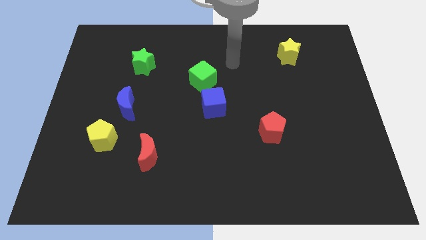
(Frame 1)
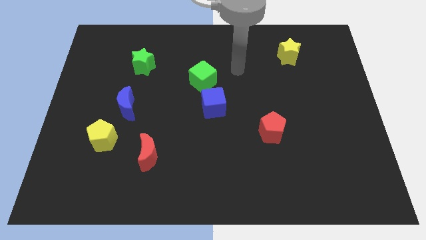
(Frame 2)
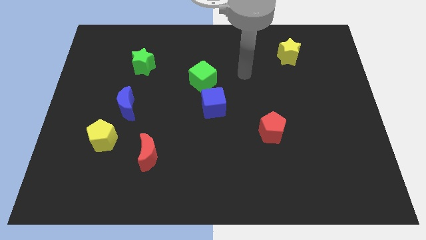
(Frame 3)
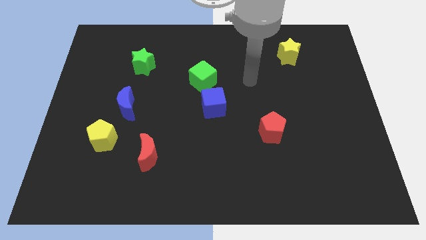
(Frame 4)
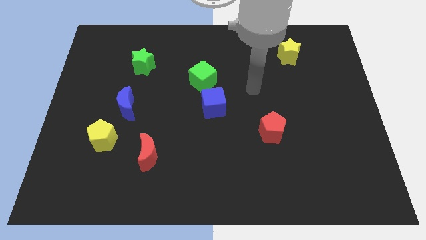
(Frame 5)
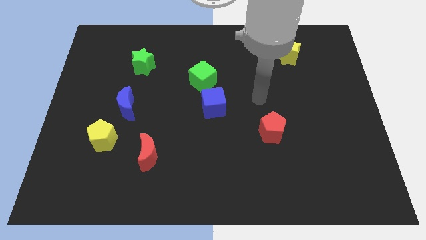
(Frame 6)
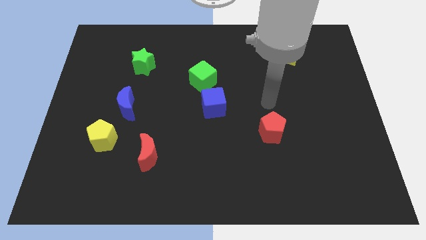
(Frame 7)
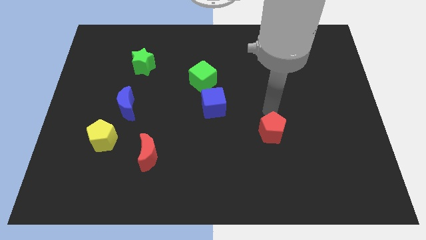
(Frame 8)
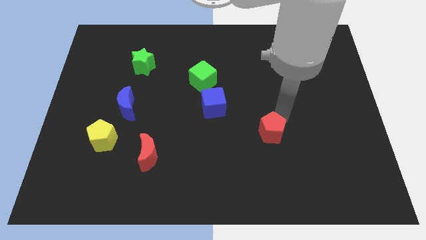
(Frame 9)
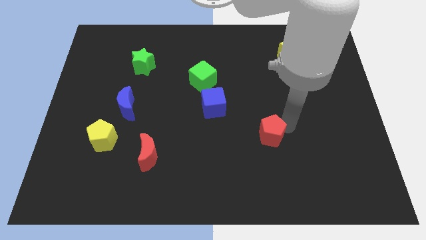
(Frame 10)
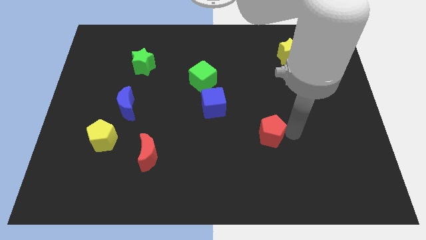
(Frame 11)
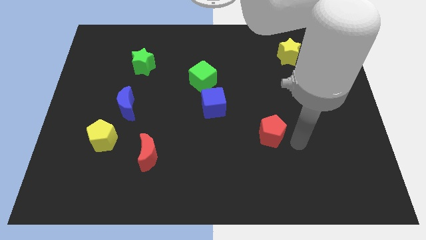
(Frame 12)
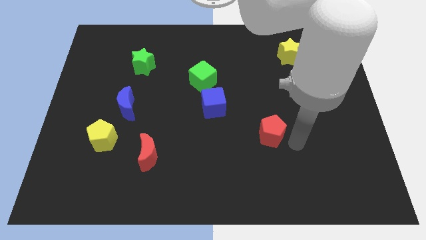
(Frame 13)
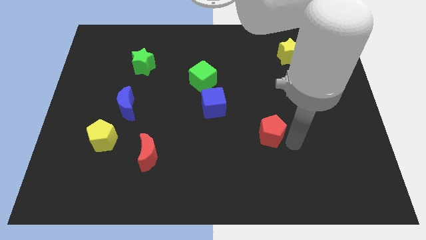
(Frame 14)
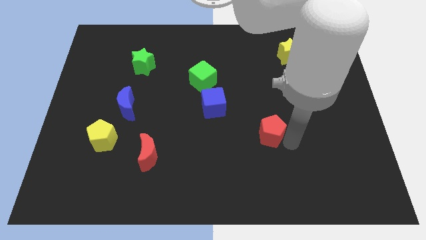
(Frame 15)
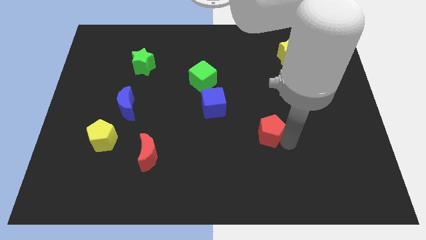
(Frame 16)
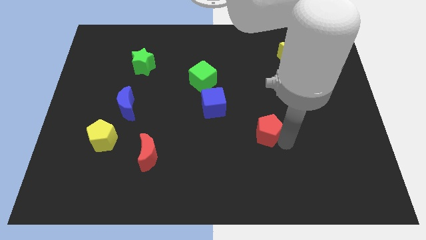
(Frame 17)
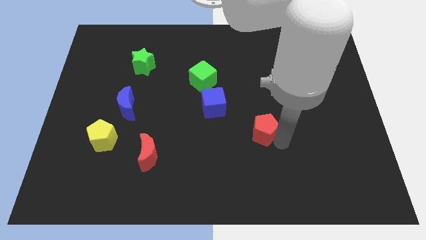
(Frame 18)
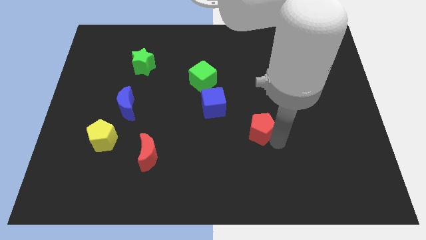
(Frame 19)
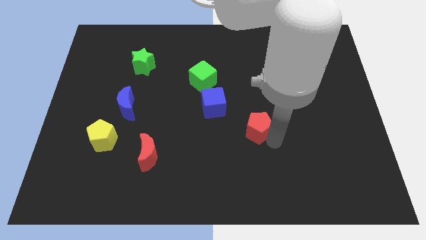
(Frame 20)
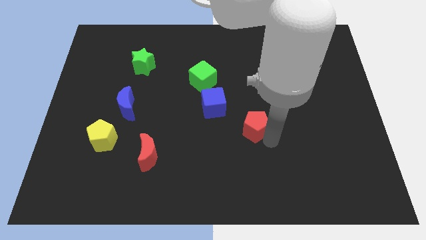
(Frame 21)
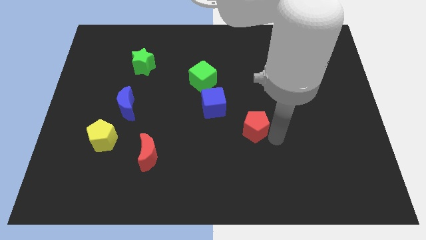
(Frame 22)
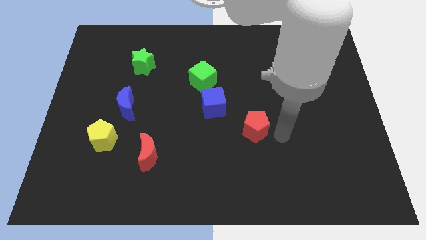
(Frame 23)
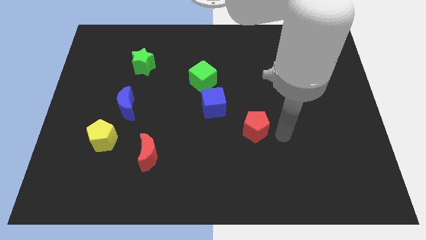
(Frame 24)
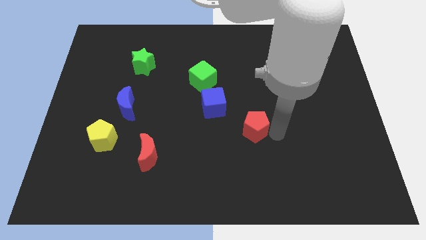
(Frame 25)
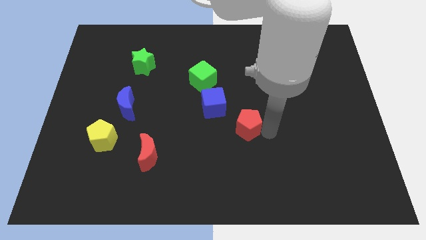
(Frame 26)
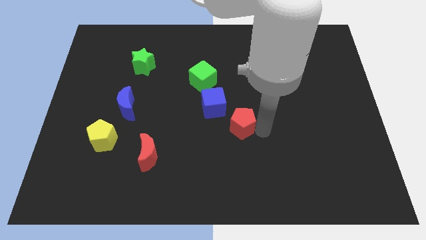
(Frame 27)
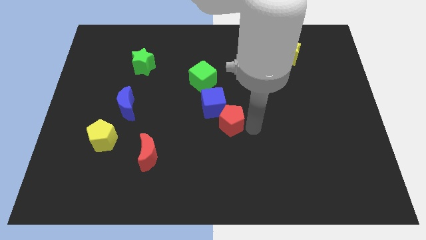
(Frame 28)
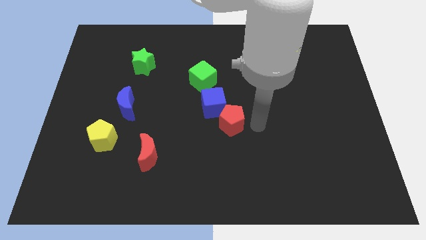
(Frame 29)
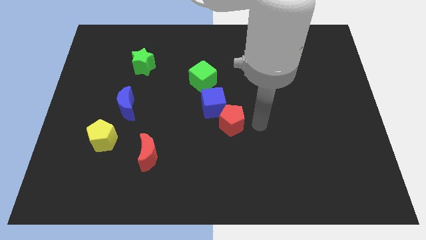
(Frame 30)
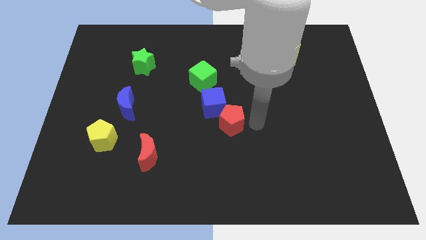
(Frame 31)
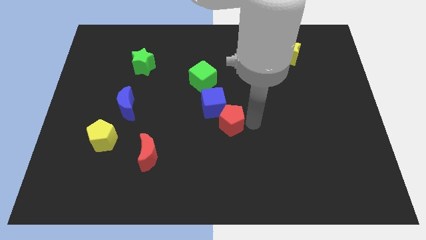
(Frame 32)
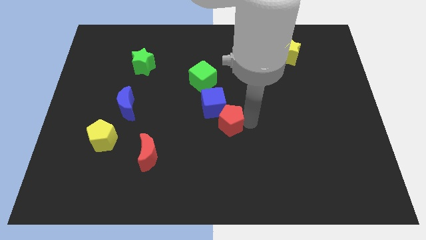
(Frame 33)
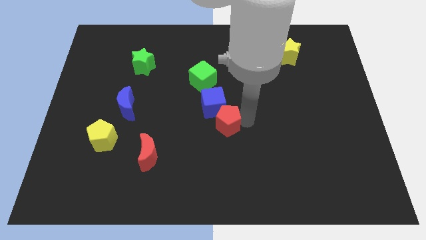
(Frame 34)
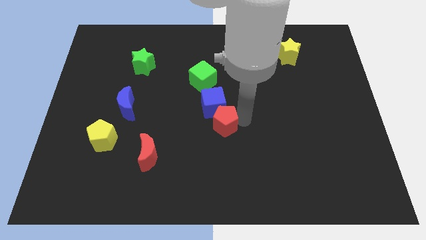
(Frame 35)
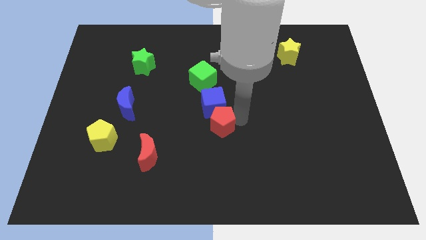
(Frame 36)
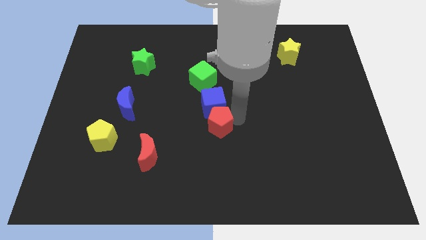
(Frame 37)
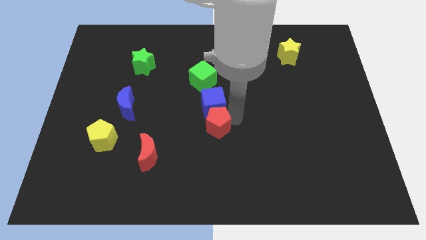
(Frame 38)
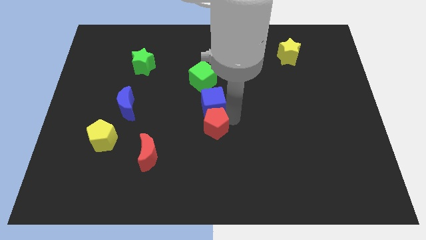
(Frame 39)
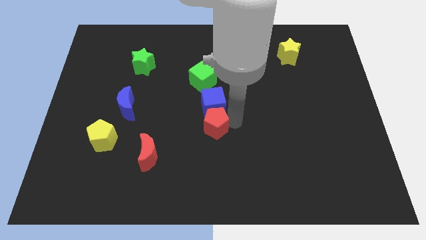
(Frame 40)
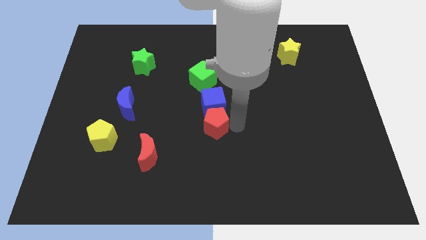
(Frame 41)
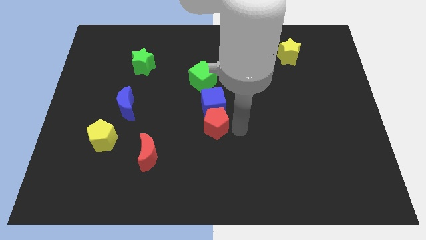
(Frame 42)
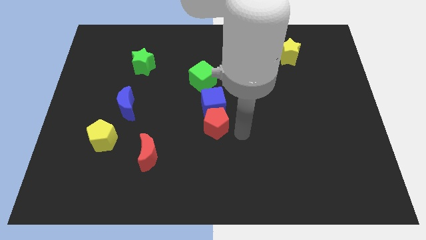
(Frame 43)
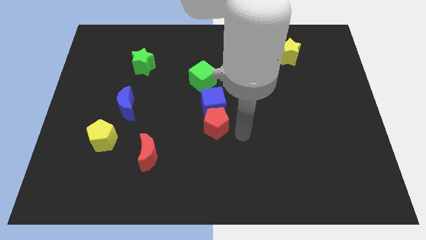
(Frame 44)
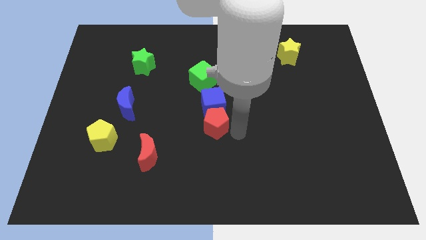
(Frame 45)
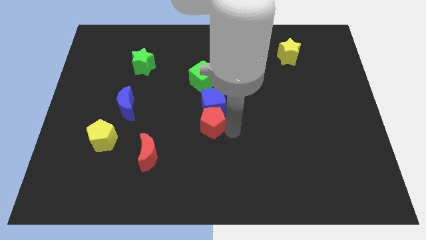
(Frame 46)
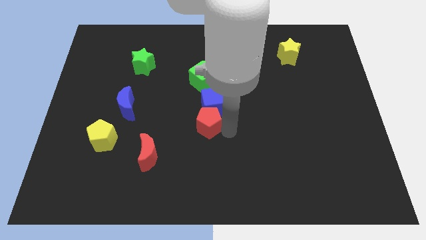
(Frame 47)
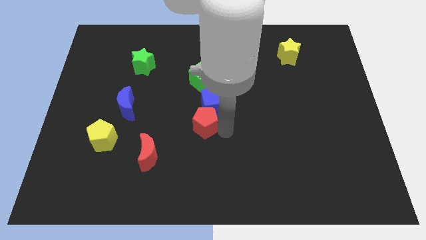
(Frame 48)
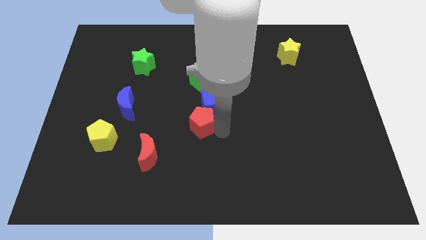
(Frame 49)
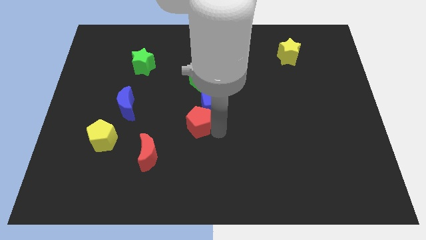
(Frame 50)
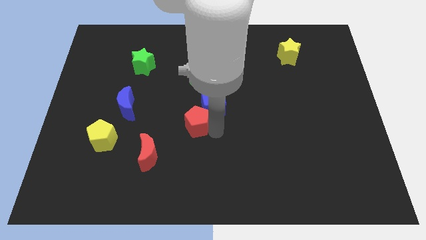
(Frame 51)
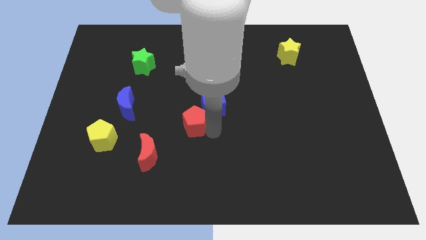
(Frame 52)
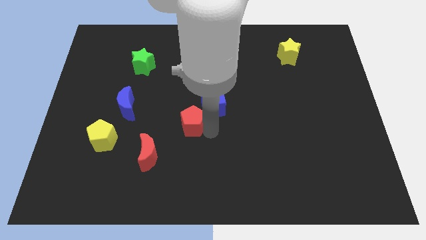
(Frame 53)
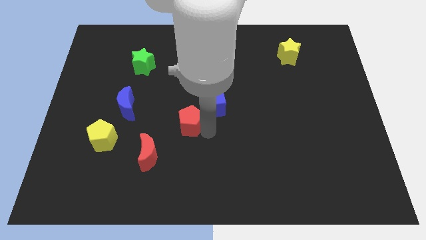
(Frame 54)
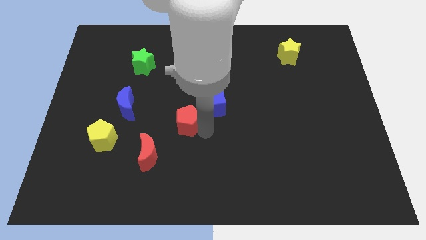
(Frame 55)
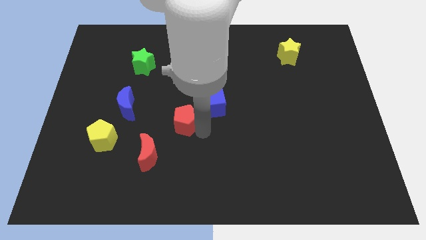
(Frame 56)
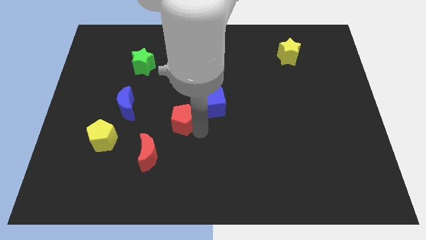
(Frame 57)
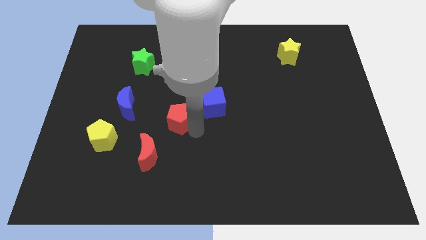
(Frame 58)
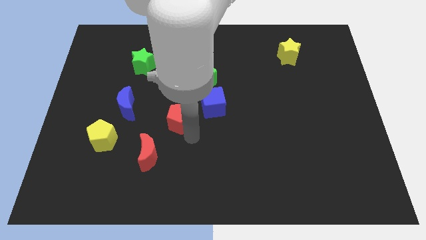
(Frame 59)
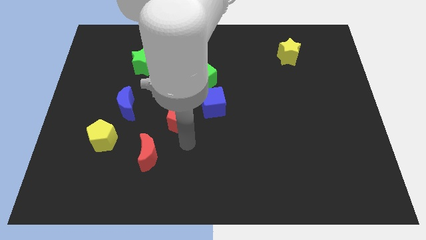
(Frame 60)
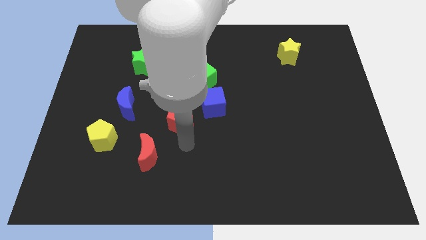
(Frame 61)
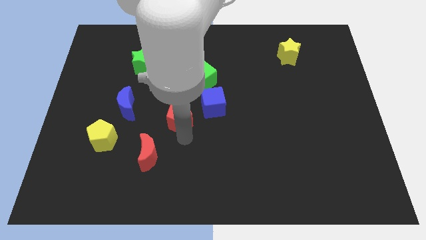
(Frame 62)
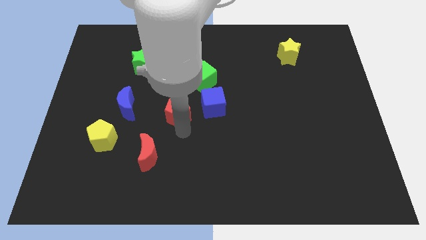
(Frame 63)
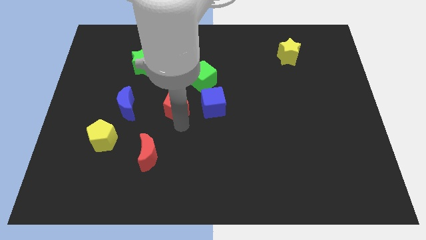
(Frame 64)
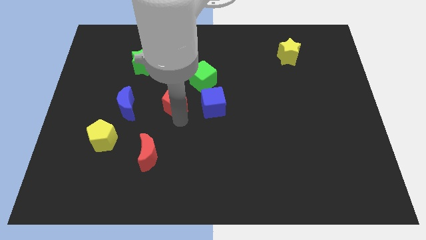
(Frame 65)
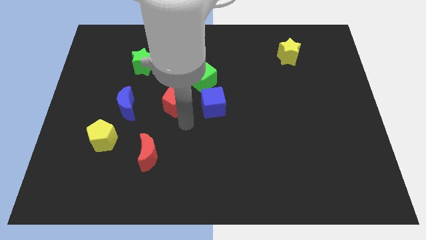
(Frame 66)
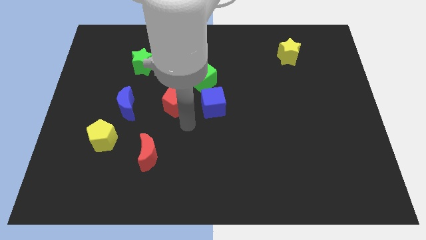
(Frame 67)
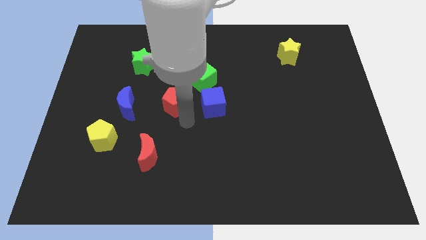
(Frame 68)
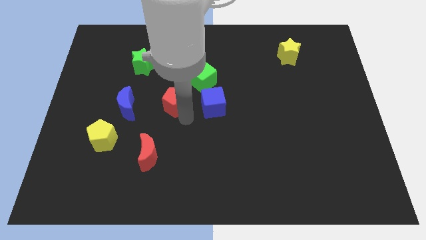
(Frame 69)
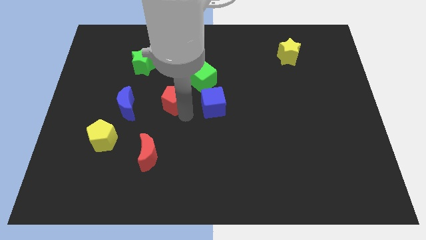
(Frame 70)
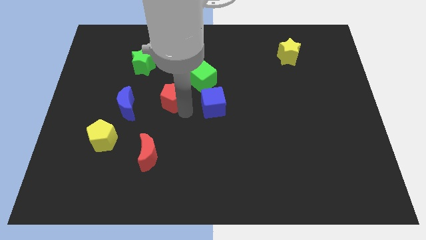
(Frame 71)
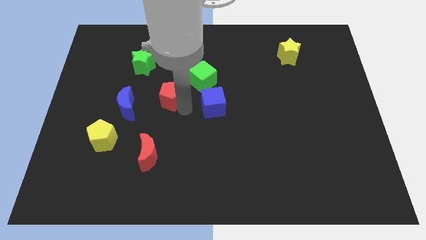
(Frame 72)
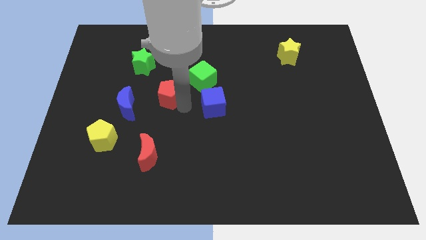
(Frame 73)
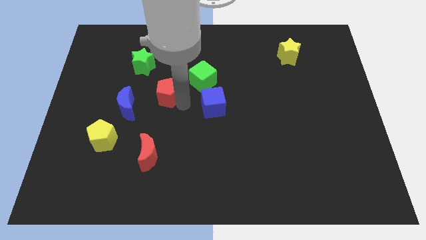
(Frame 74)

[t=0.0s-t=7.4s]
push the red pentagon diagonally down and to the right of the green star
